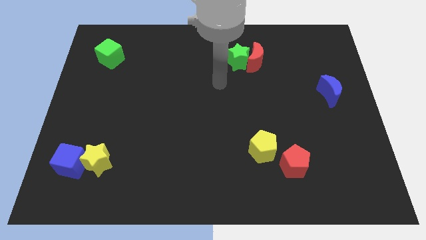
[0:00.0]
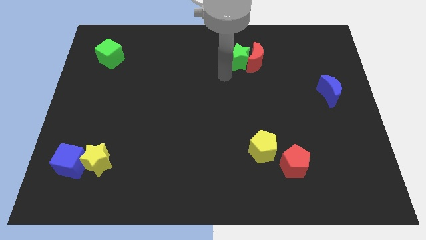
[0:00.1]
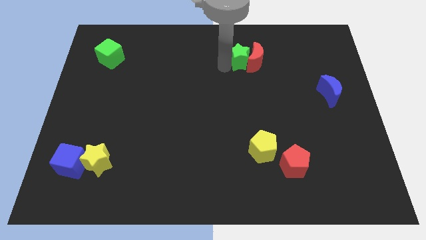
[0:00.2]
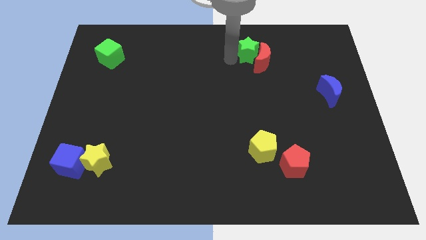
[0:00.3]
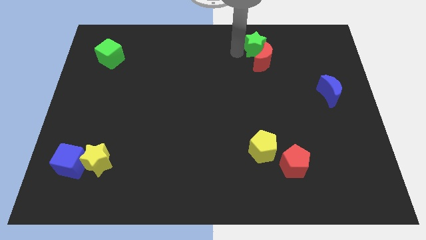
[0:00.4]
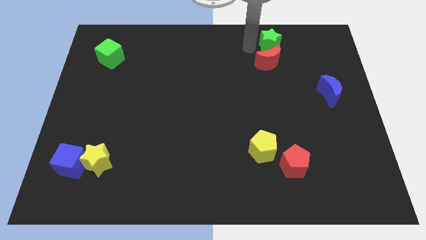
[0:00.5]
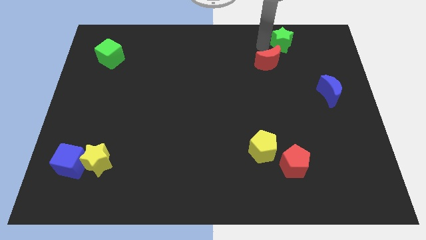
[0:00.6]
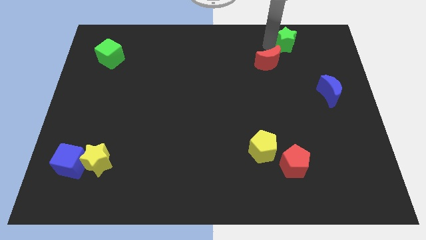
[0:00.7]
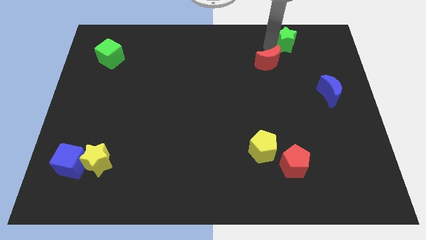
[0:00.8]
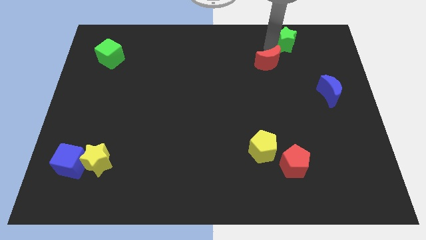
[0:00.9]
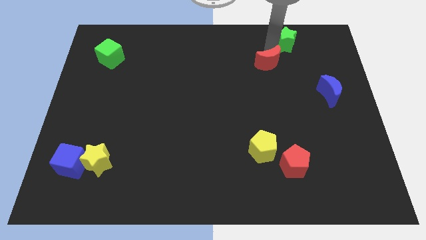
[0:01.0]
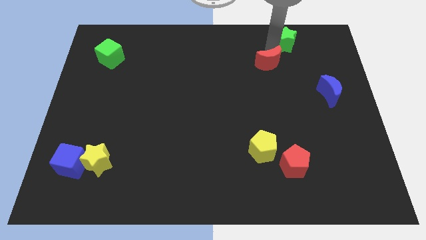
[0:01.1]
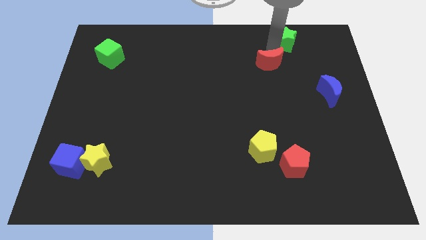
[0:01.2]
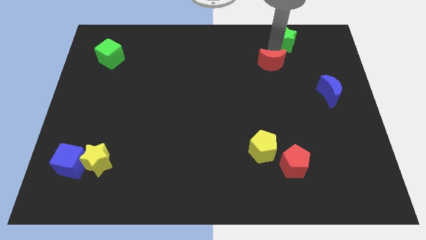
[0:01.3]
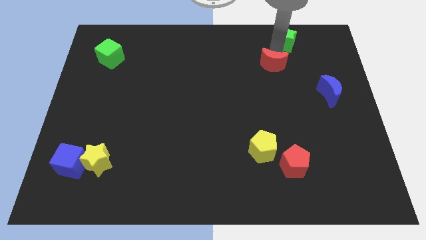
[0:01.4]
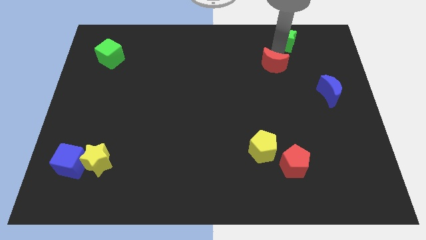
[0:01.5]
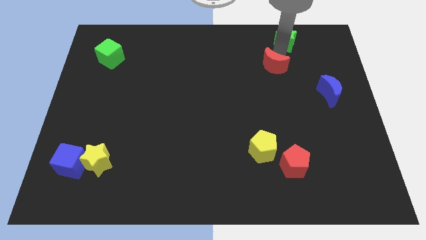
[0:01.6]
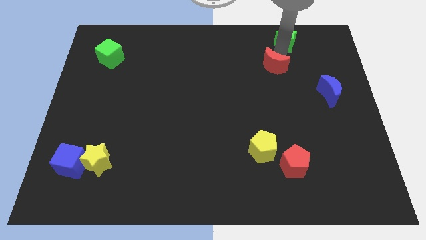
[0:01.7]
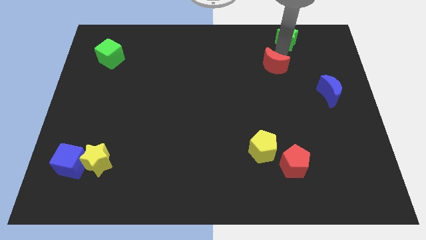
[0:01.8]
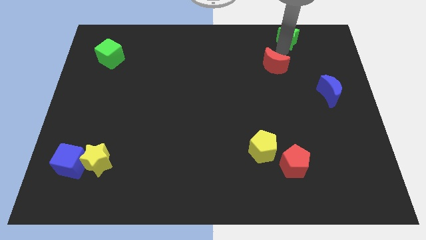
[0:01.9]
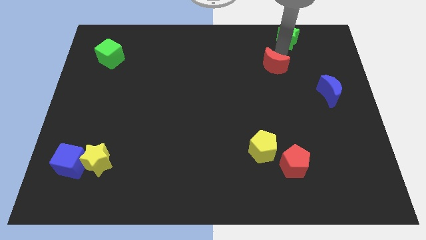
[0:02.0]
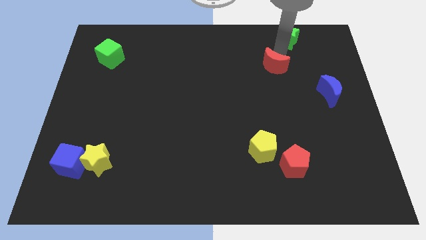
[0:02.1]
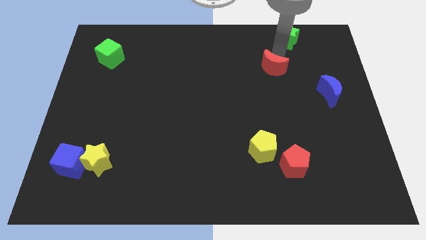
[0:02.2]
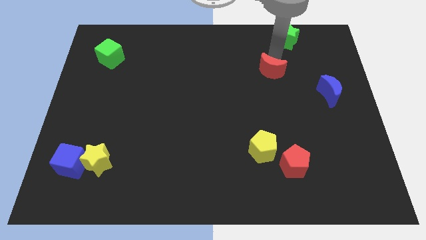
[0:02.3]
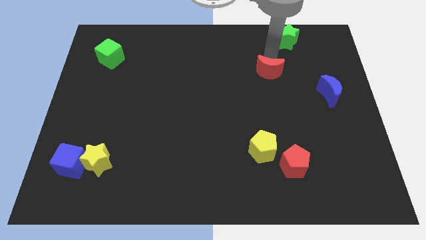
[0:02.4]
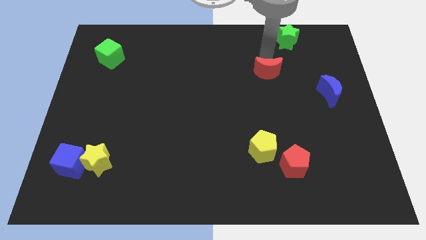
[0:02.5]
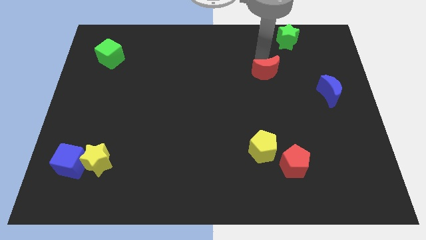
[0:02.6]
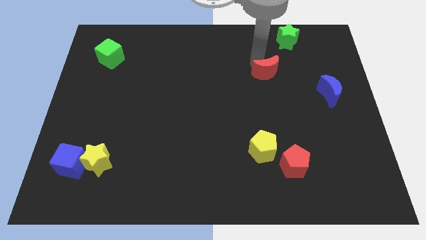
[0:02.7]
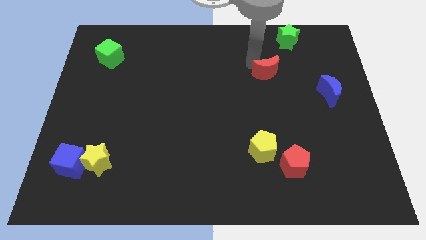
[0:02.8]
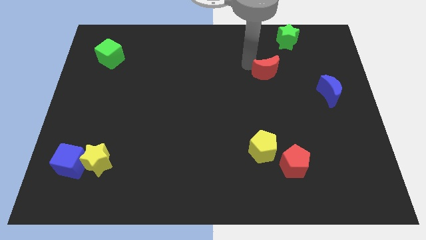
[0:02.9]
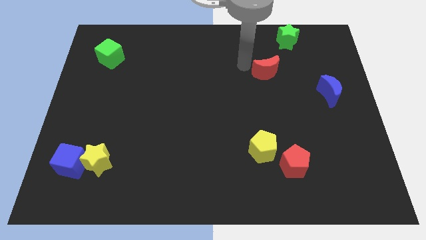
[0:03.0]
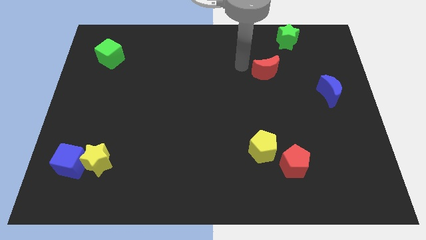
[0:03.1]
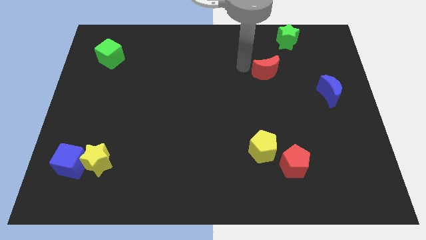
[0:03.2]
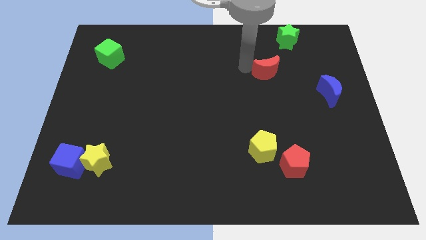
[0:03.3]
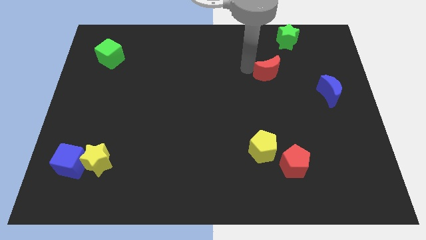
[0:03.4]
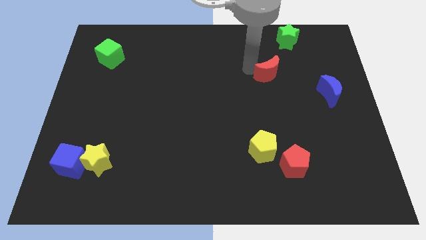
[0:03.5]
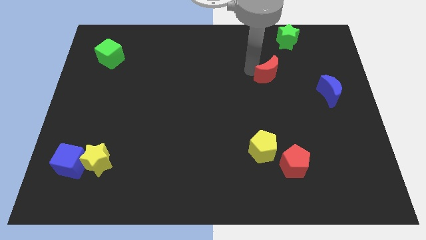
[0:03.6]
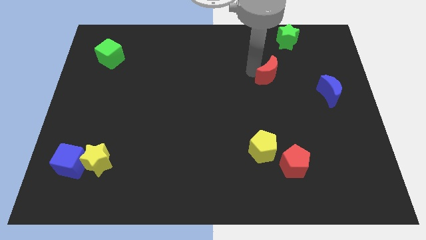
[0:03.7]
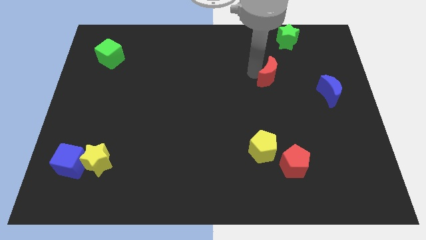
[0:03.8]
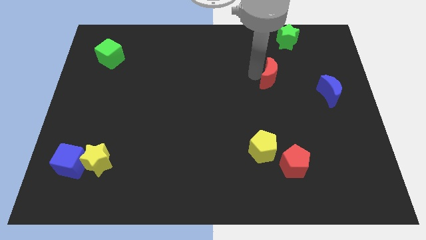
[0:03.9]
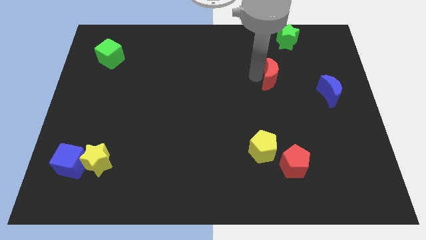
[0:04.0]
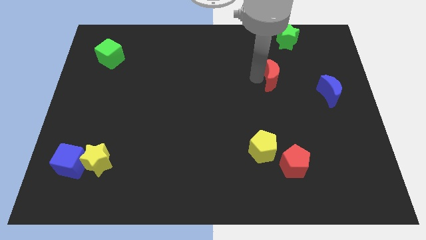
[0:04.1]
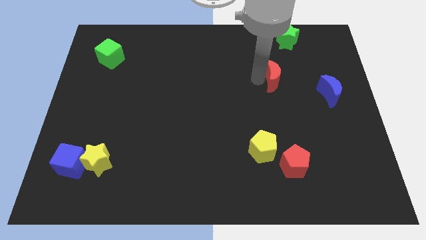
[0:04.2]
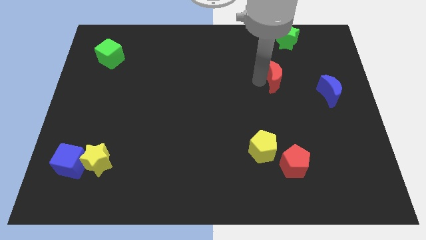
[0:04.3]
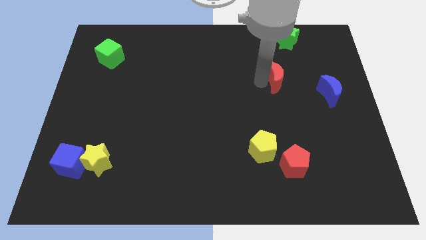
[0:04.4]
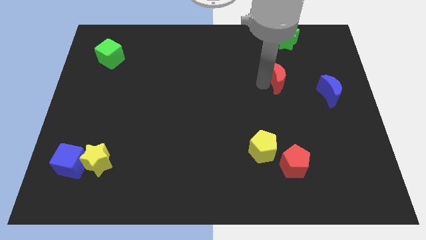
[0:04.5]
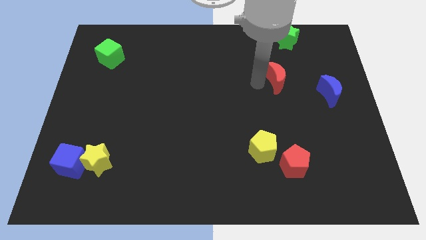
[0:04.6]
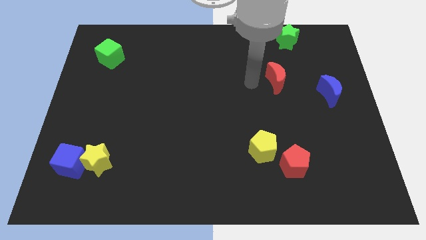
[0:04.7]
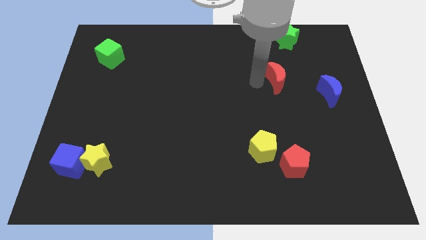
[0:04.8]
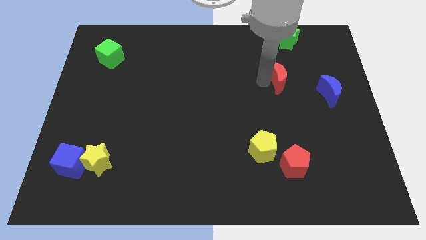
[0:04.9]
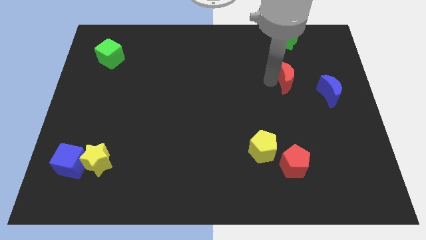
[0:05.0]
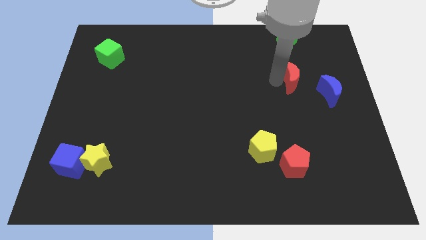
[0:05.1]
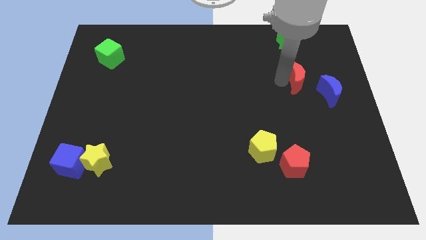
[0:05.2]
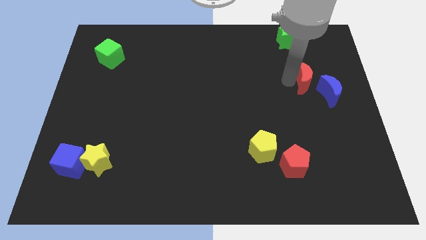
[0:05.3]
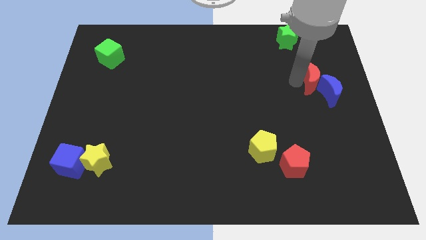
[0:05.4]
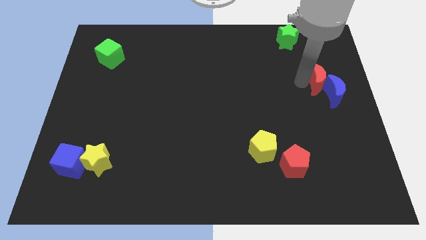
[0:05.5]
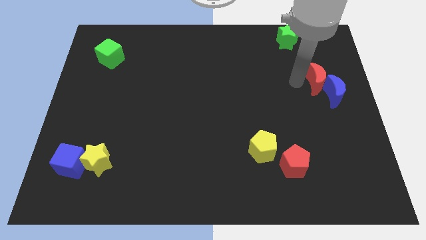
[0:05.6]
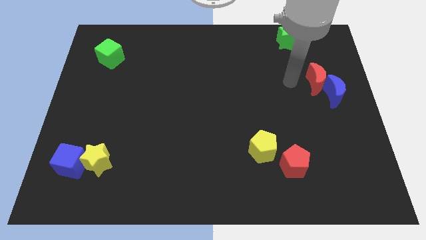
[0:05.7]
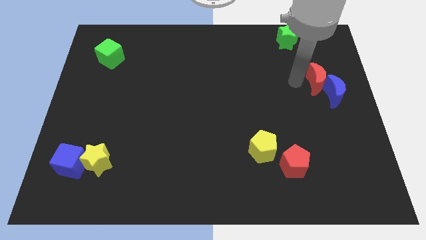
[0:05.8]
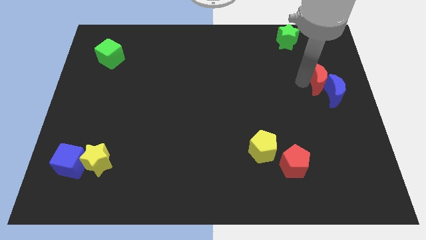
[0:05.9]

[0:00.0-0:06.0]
move the red moon to the right side

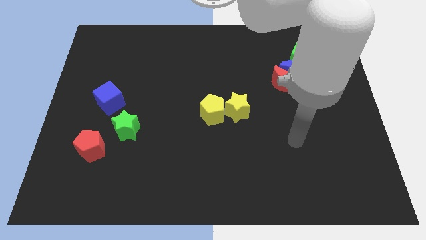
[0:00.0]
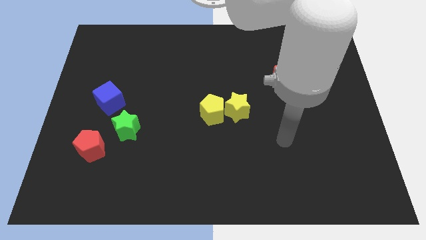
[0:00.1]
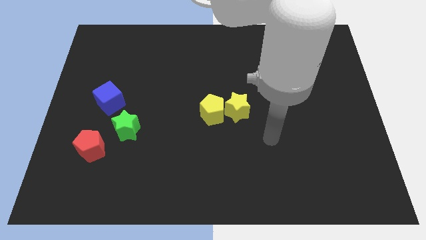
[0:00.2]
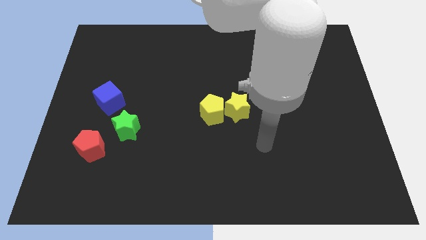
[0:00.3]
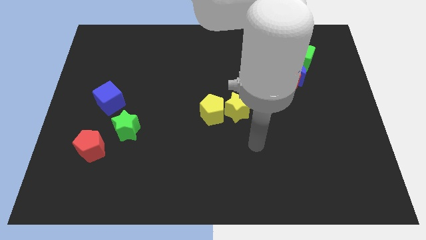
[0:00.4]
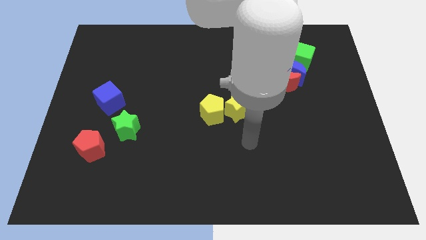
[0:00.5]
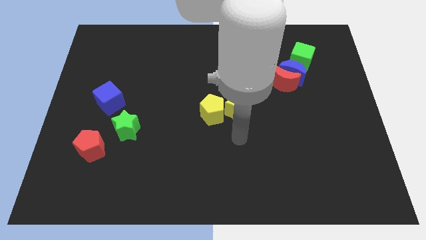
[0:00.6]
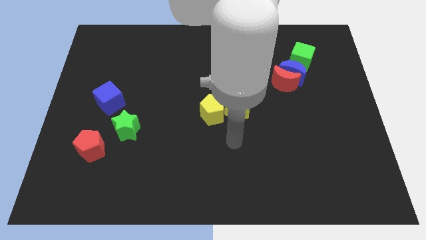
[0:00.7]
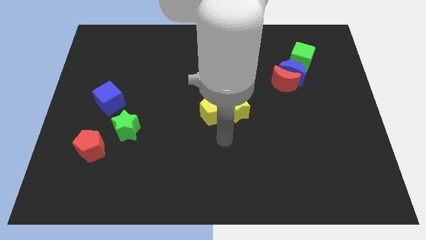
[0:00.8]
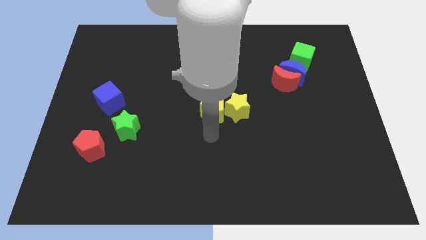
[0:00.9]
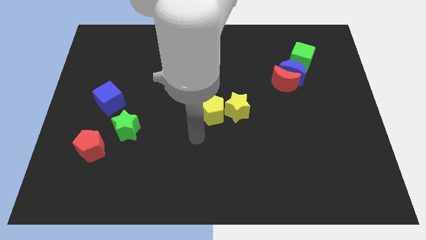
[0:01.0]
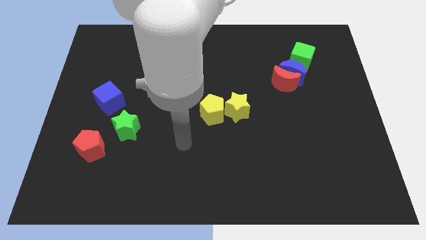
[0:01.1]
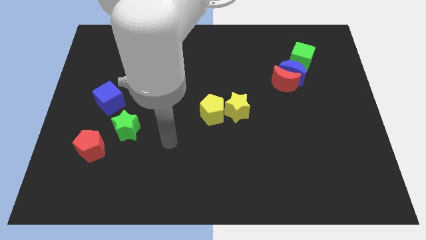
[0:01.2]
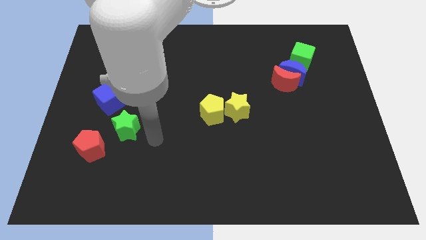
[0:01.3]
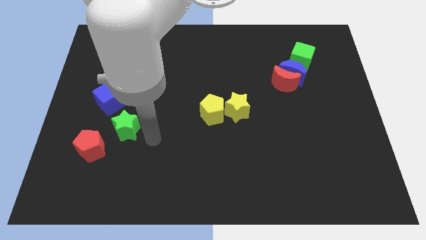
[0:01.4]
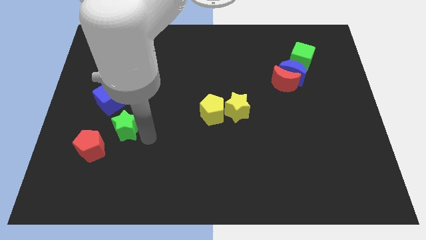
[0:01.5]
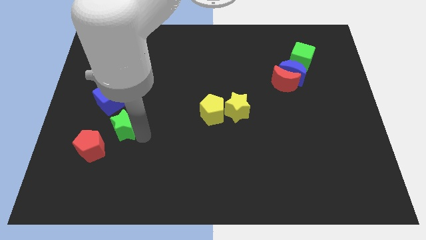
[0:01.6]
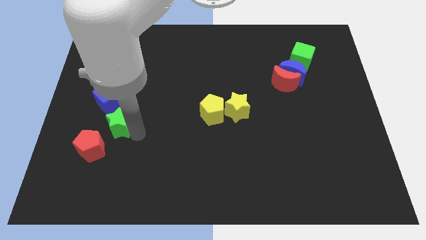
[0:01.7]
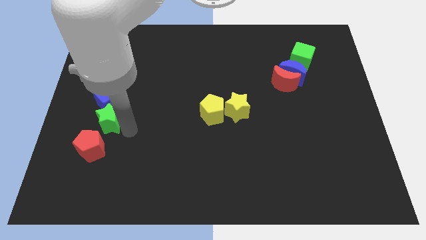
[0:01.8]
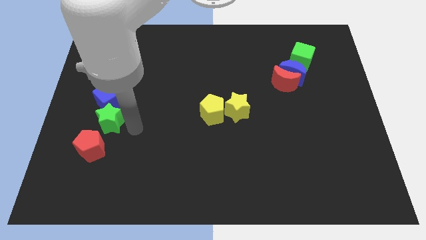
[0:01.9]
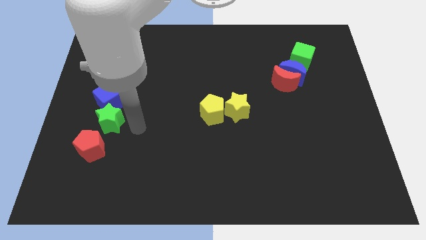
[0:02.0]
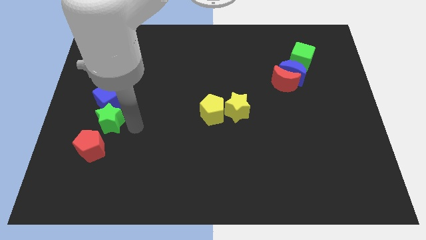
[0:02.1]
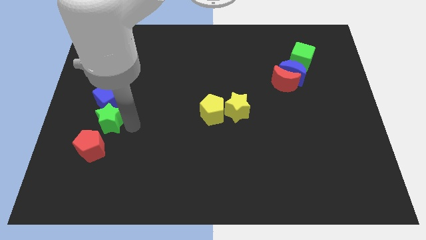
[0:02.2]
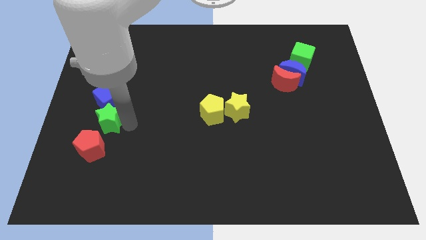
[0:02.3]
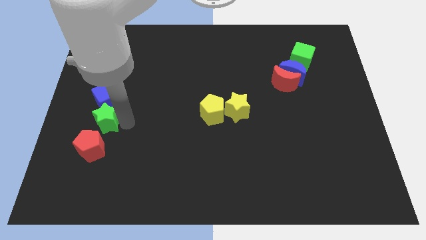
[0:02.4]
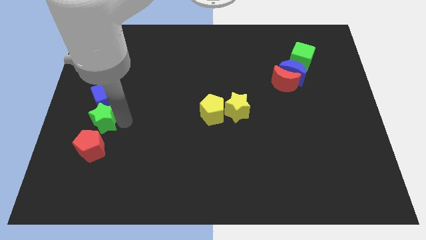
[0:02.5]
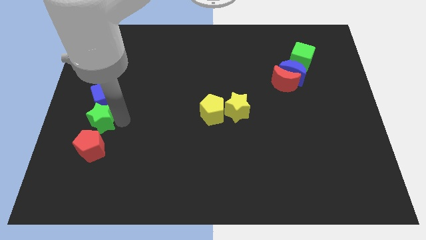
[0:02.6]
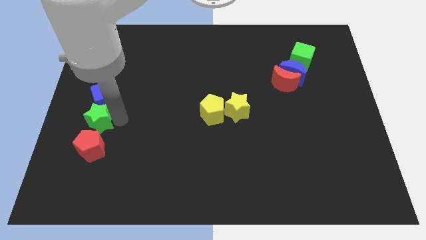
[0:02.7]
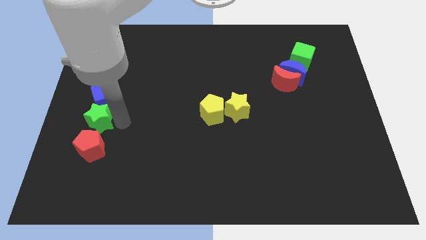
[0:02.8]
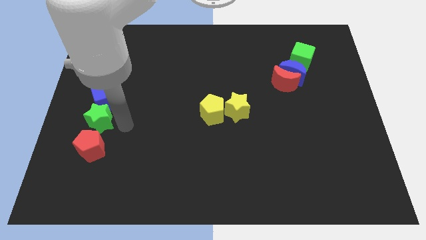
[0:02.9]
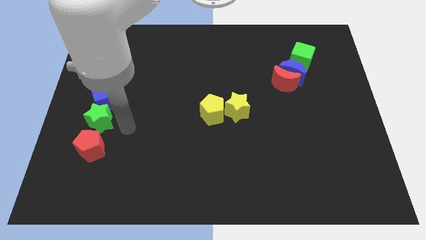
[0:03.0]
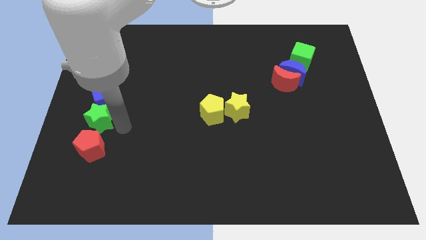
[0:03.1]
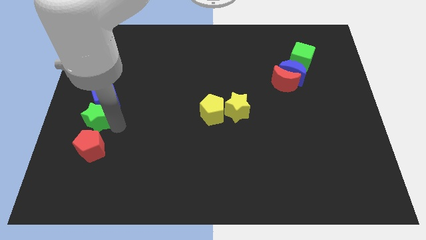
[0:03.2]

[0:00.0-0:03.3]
move the green star to the left side of the board
